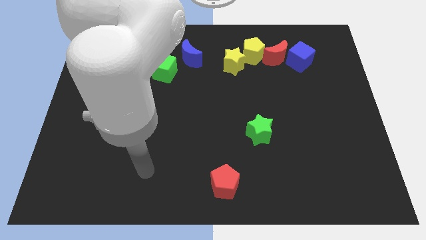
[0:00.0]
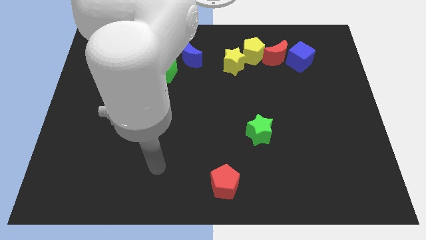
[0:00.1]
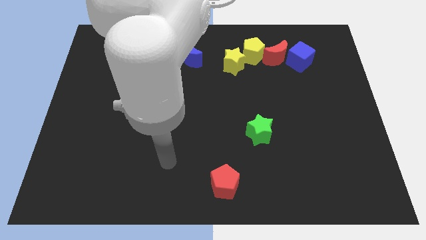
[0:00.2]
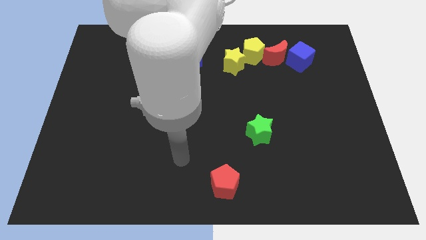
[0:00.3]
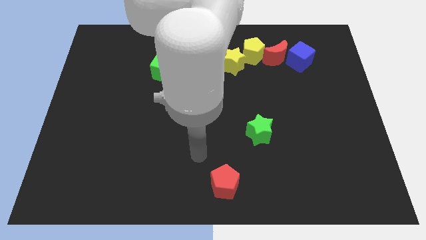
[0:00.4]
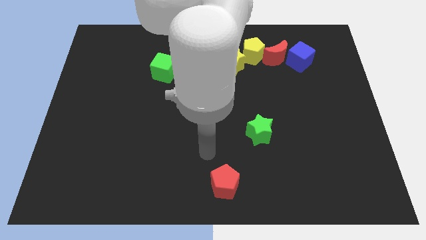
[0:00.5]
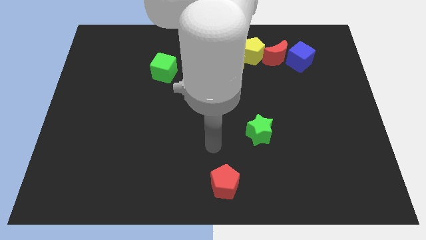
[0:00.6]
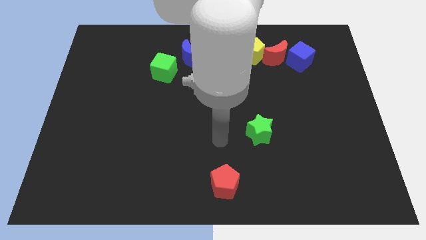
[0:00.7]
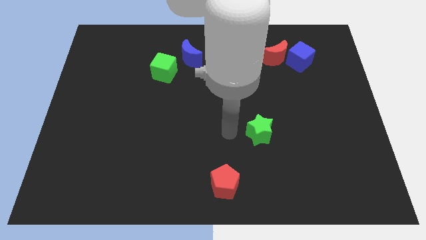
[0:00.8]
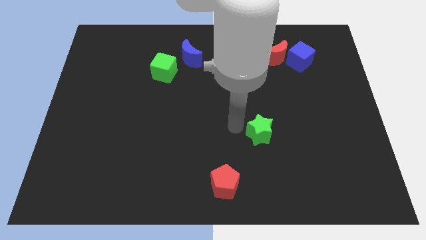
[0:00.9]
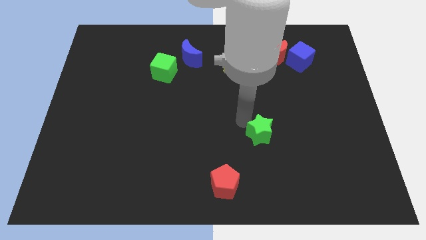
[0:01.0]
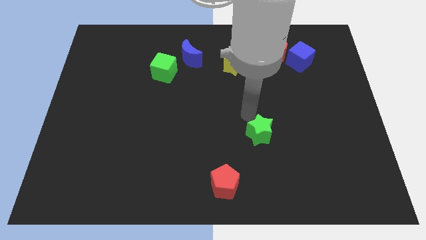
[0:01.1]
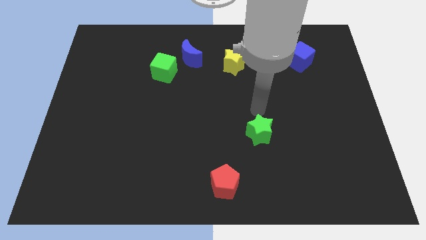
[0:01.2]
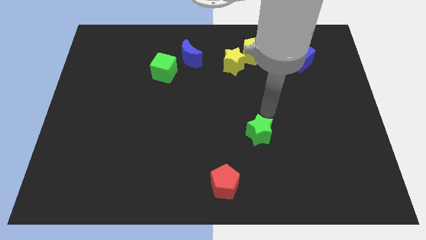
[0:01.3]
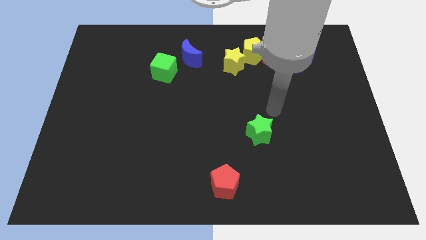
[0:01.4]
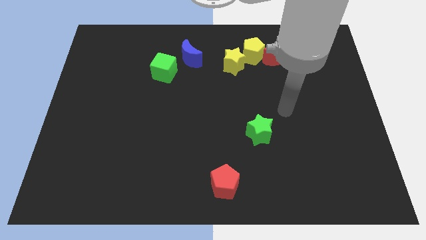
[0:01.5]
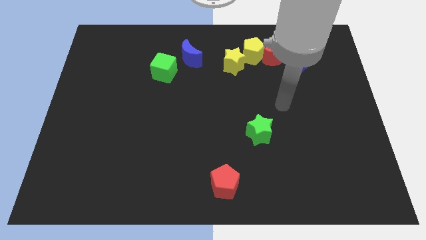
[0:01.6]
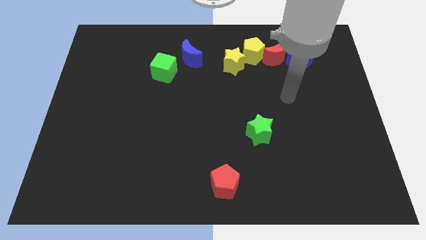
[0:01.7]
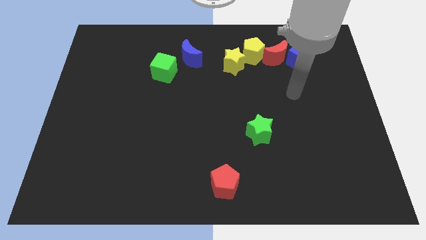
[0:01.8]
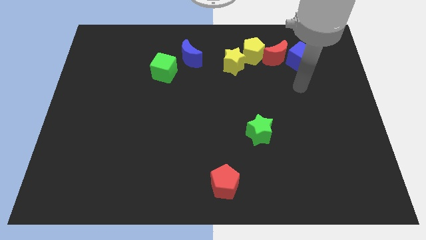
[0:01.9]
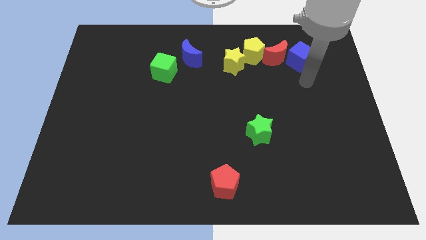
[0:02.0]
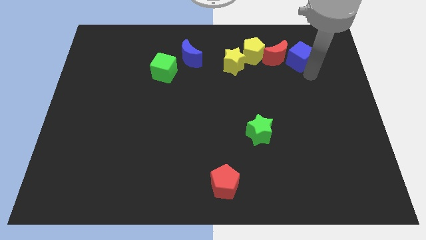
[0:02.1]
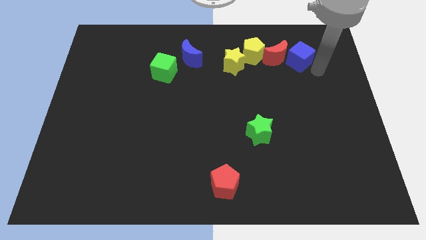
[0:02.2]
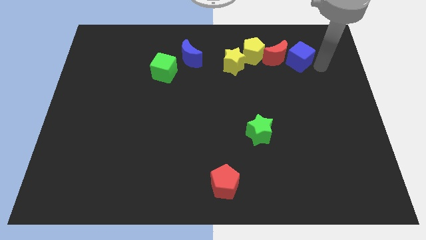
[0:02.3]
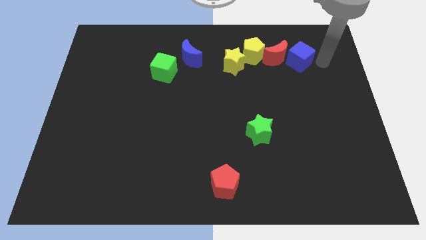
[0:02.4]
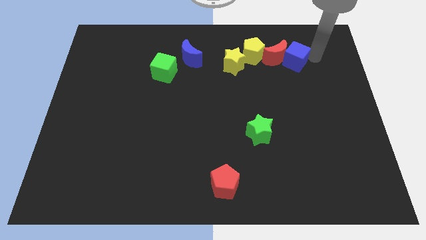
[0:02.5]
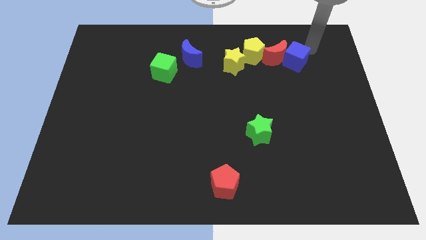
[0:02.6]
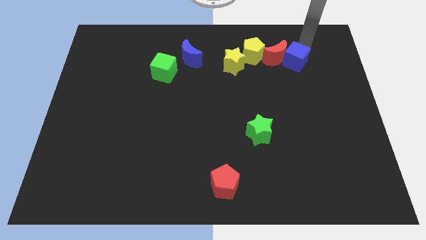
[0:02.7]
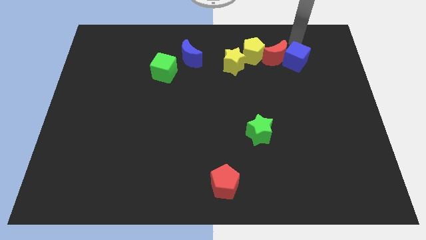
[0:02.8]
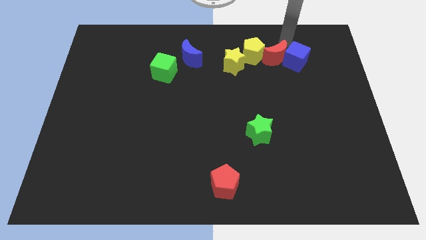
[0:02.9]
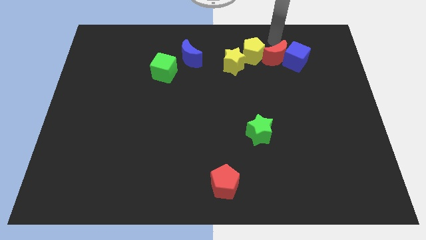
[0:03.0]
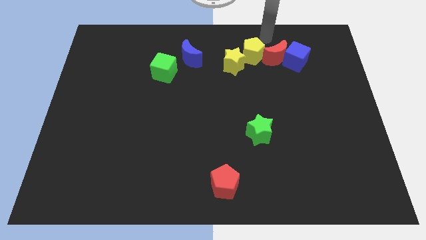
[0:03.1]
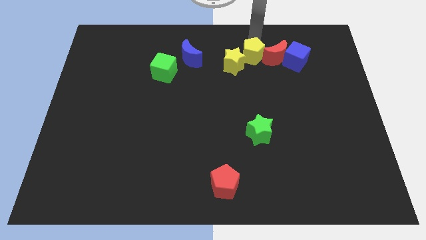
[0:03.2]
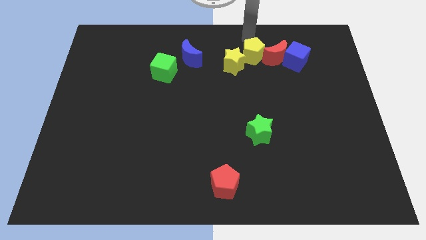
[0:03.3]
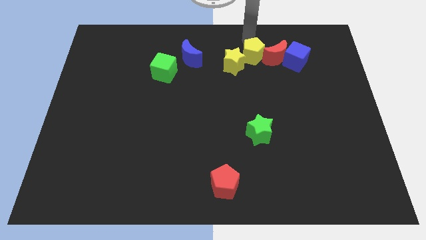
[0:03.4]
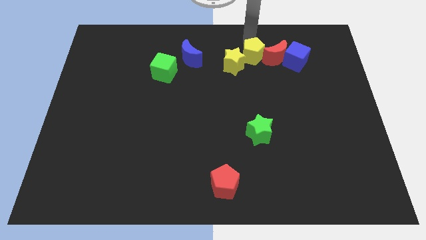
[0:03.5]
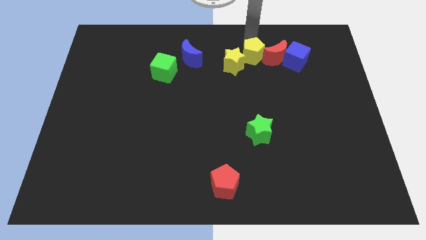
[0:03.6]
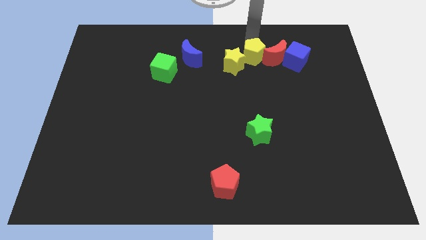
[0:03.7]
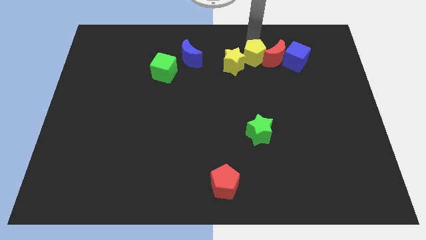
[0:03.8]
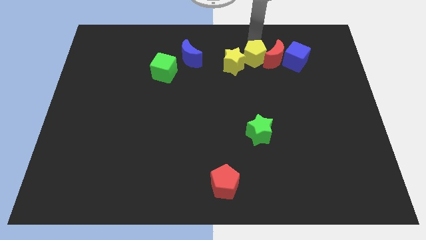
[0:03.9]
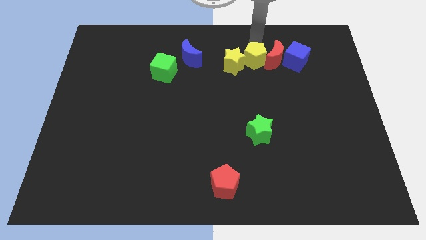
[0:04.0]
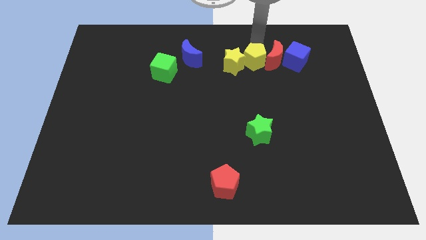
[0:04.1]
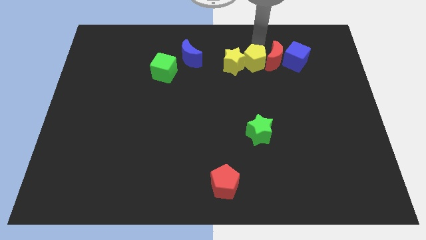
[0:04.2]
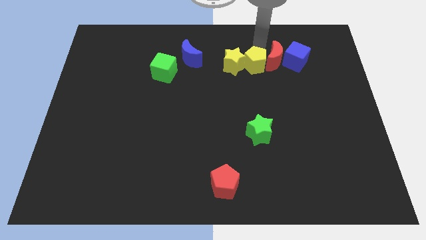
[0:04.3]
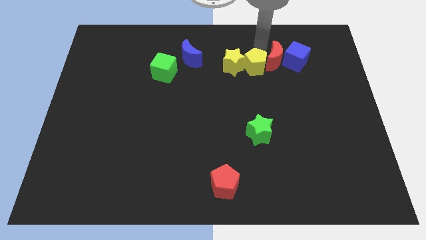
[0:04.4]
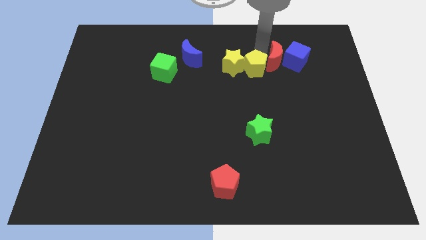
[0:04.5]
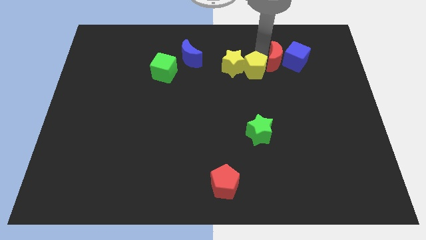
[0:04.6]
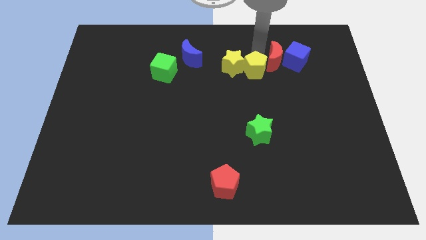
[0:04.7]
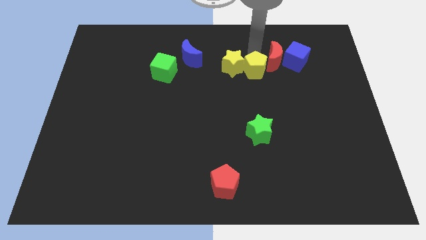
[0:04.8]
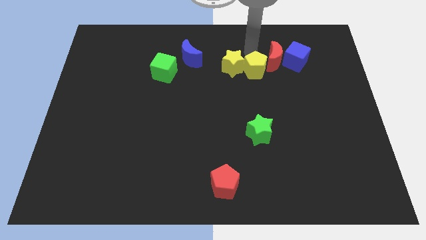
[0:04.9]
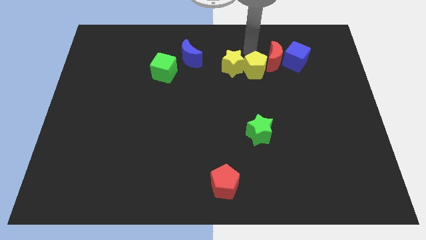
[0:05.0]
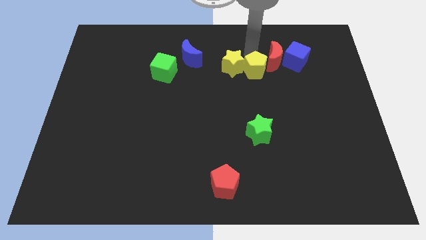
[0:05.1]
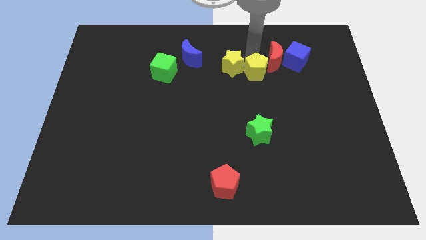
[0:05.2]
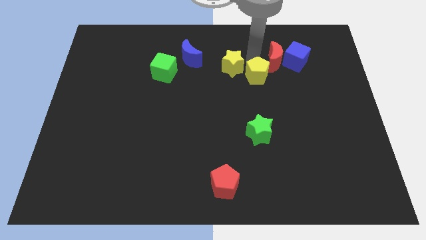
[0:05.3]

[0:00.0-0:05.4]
slightly slide the yellow pentagon downwards

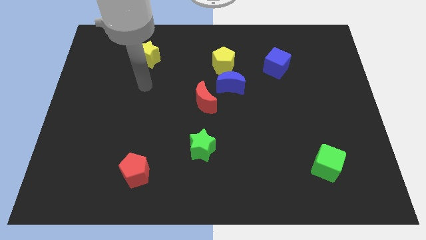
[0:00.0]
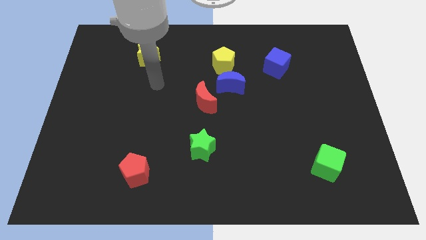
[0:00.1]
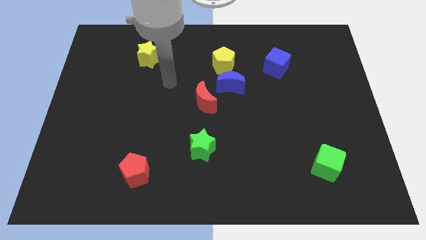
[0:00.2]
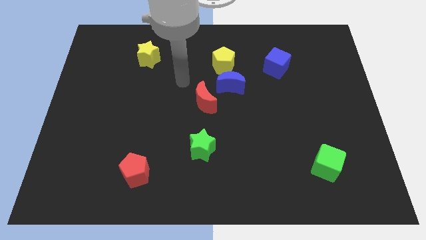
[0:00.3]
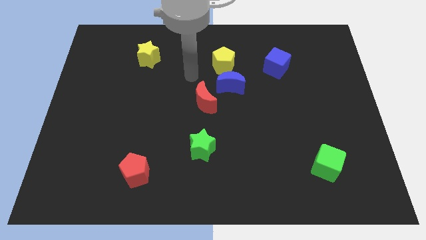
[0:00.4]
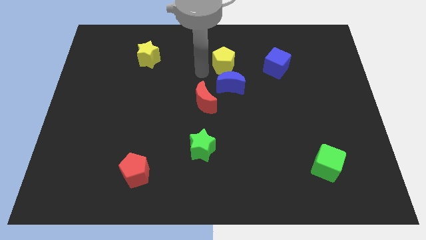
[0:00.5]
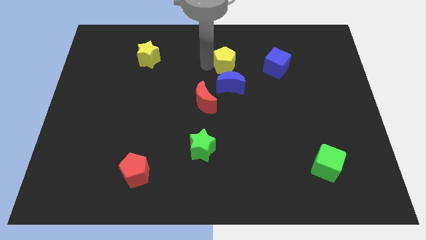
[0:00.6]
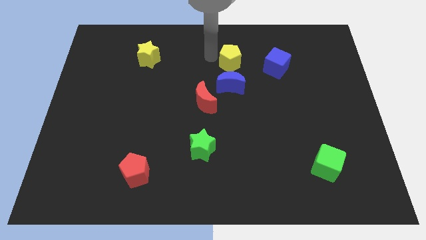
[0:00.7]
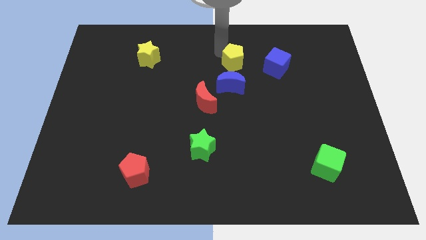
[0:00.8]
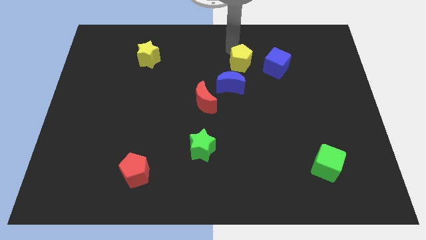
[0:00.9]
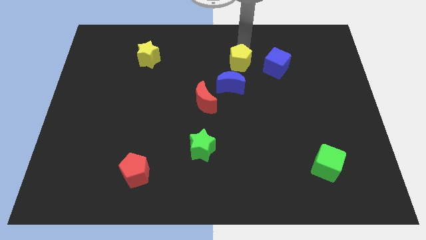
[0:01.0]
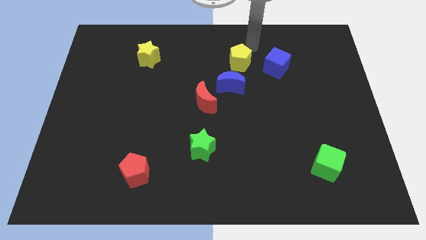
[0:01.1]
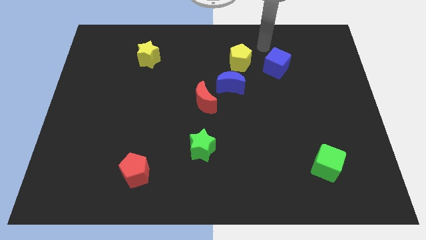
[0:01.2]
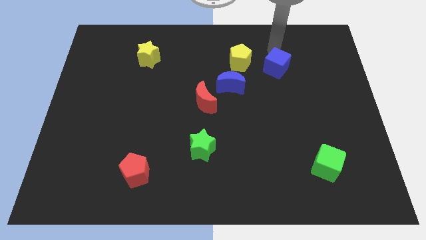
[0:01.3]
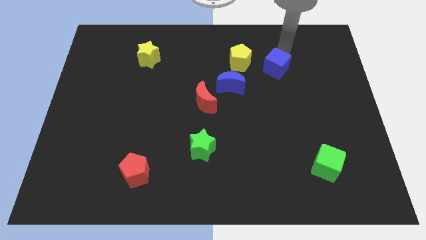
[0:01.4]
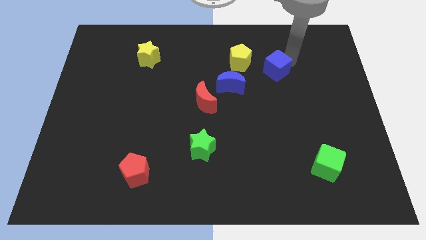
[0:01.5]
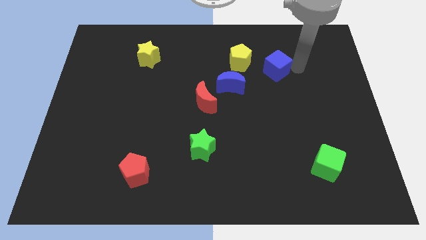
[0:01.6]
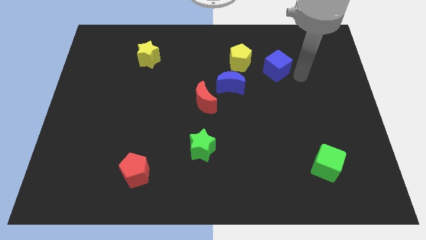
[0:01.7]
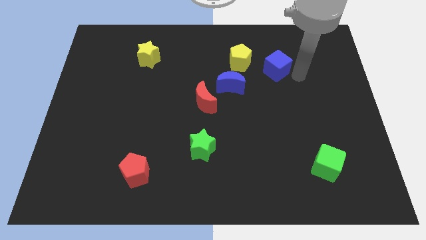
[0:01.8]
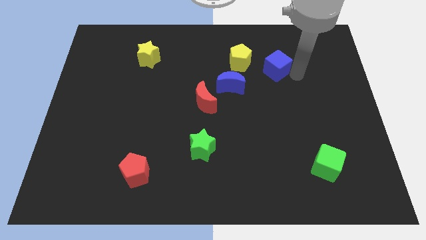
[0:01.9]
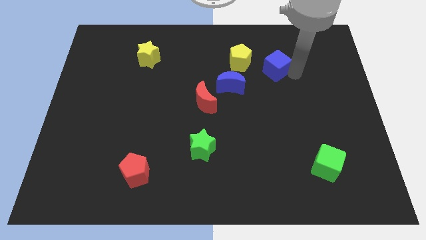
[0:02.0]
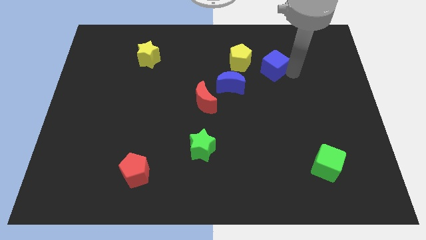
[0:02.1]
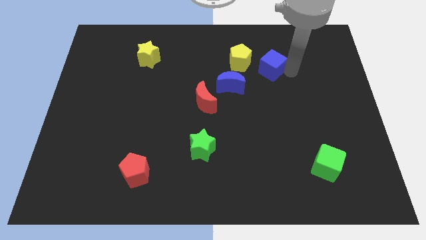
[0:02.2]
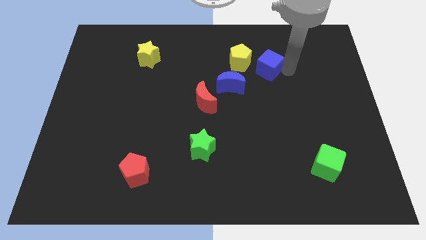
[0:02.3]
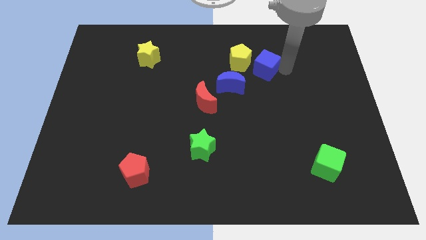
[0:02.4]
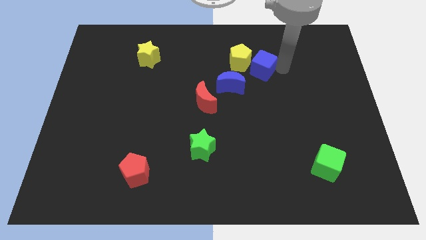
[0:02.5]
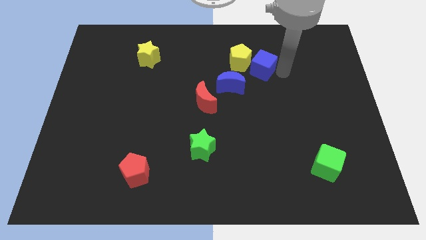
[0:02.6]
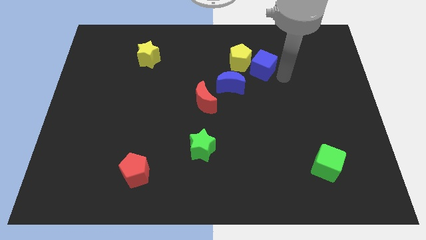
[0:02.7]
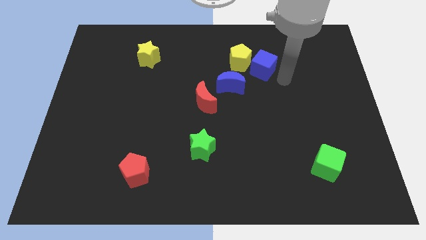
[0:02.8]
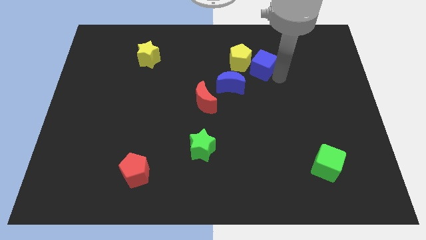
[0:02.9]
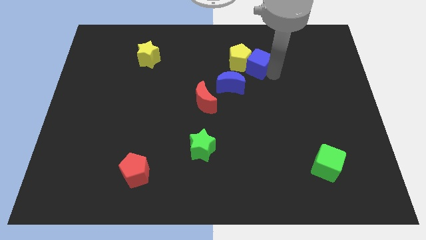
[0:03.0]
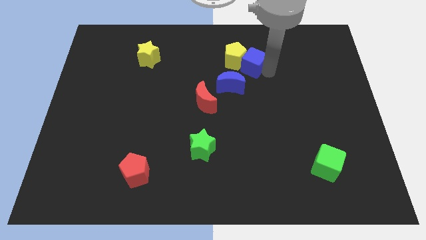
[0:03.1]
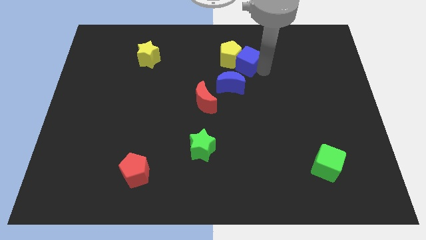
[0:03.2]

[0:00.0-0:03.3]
slide the blue cube to the left a little bit
